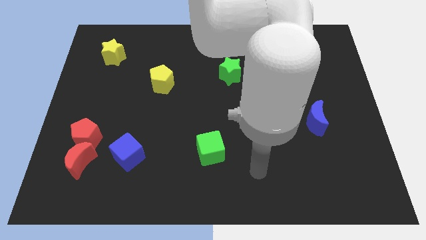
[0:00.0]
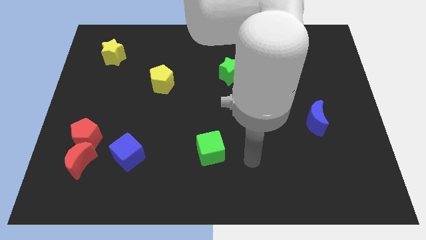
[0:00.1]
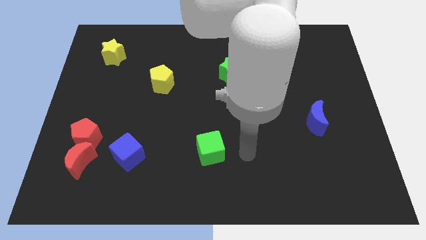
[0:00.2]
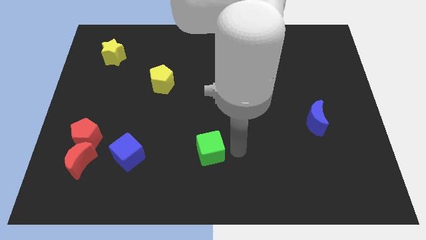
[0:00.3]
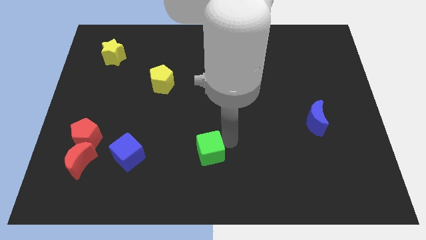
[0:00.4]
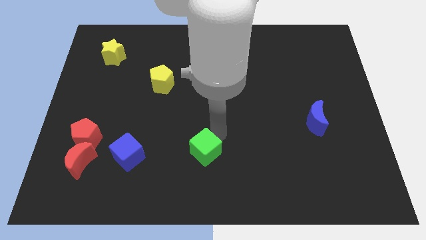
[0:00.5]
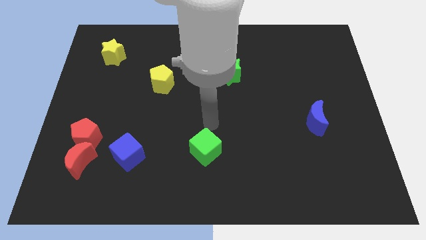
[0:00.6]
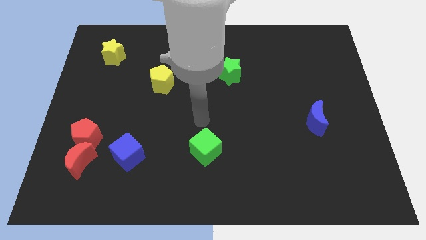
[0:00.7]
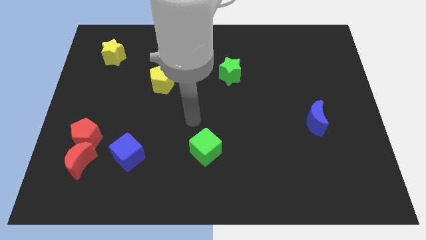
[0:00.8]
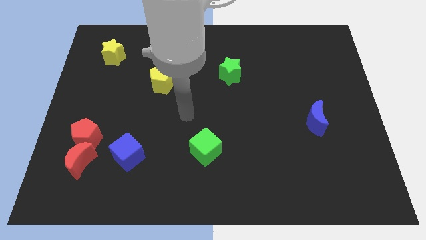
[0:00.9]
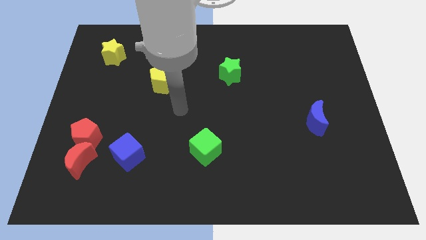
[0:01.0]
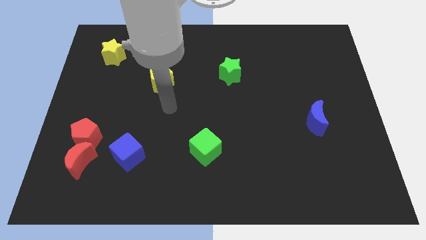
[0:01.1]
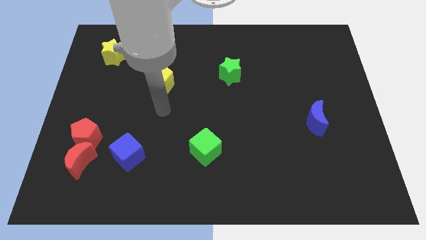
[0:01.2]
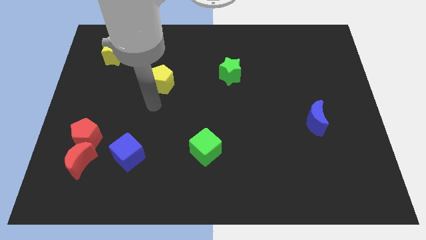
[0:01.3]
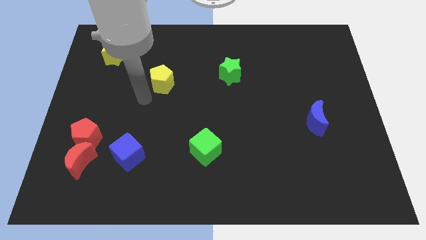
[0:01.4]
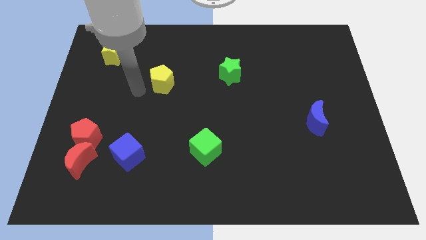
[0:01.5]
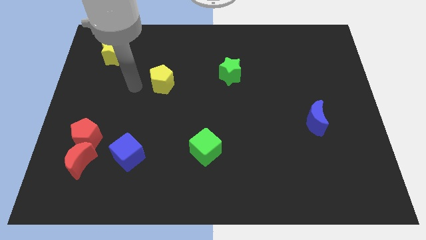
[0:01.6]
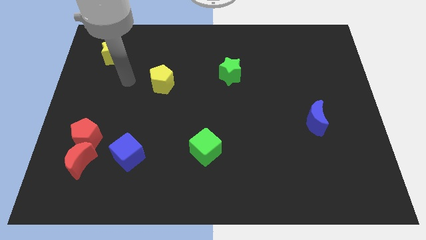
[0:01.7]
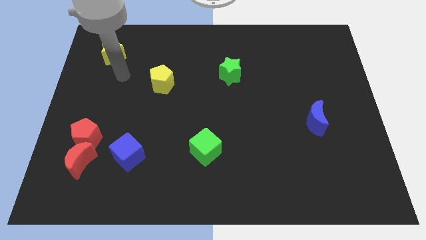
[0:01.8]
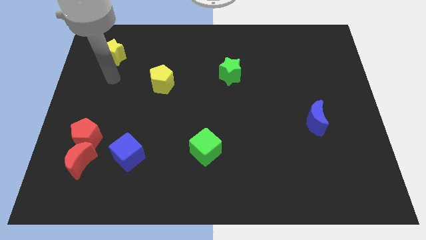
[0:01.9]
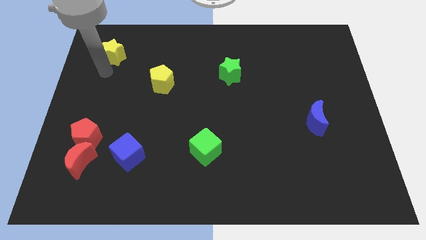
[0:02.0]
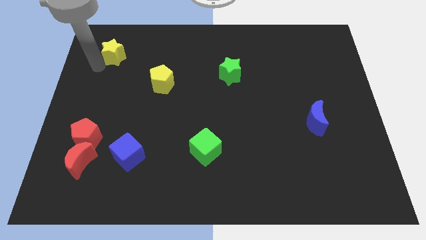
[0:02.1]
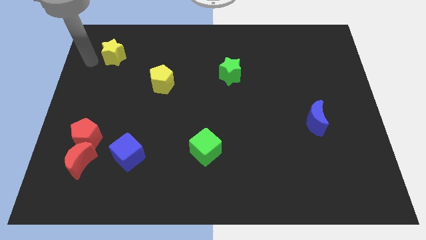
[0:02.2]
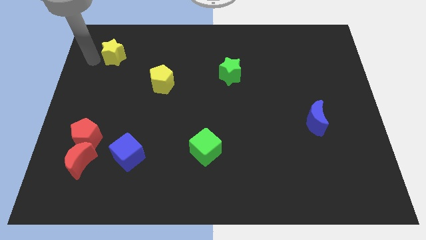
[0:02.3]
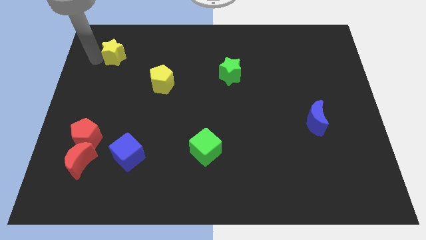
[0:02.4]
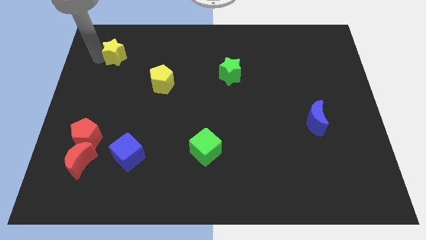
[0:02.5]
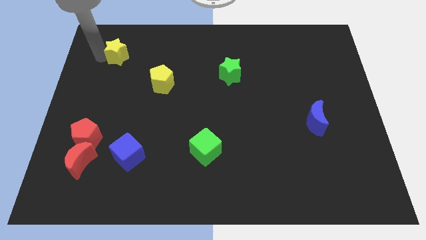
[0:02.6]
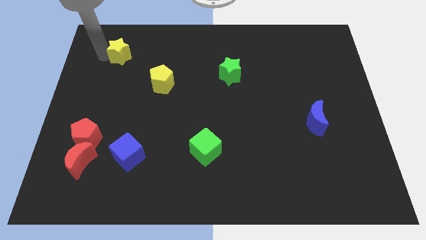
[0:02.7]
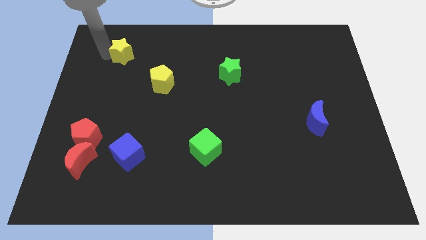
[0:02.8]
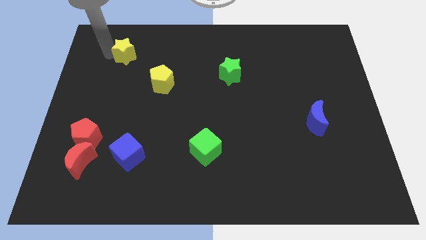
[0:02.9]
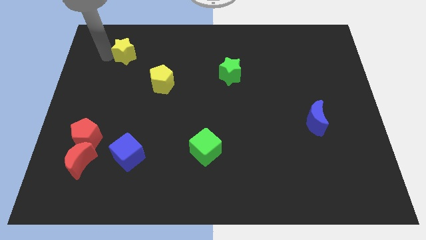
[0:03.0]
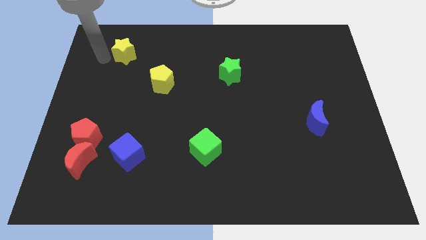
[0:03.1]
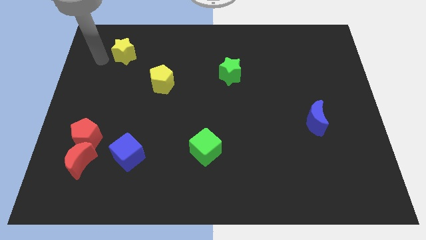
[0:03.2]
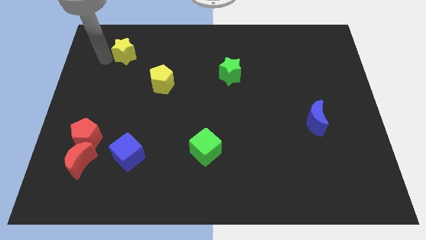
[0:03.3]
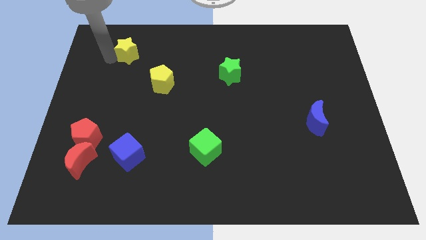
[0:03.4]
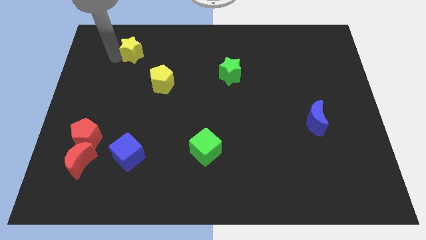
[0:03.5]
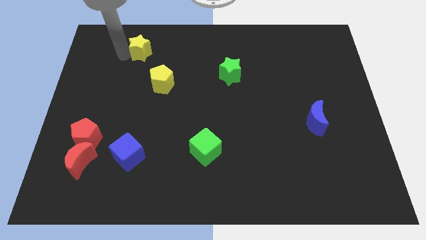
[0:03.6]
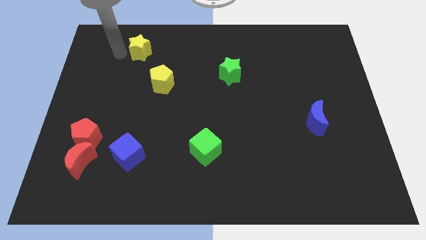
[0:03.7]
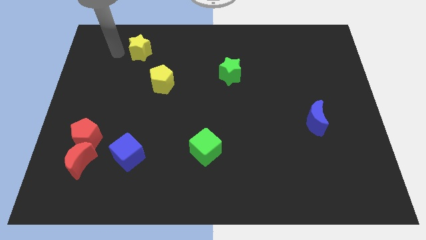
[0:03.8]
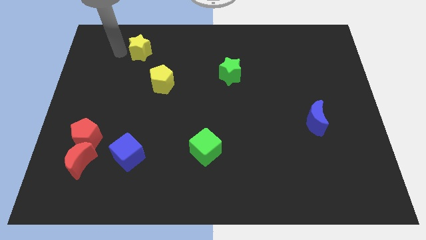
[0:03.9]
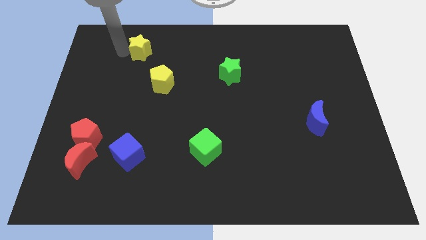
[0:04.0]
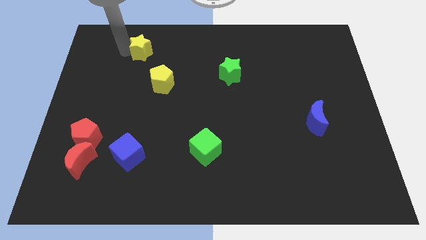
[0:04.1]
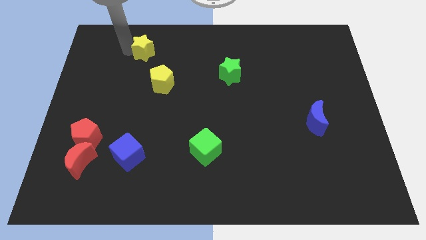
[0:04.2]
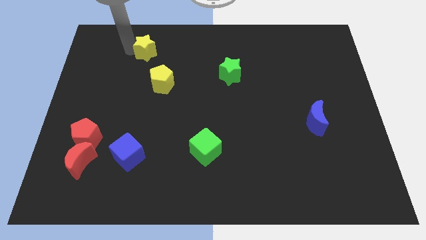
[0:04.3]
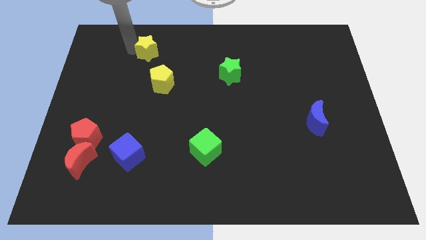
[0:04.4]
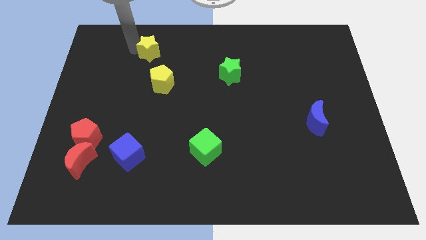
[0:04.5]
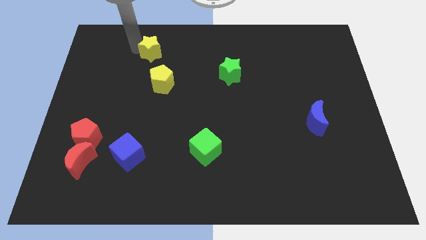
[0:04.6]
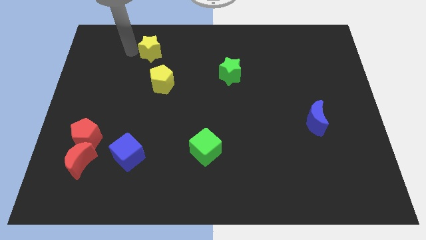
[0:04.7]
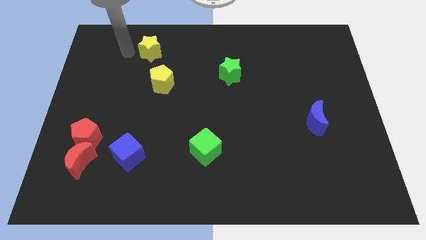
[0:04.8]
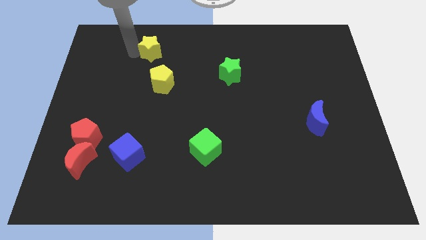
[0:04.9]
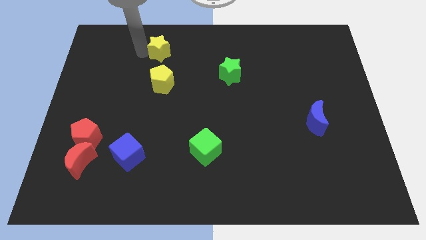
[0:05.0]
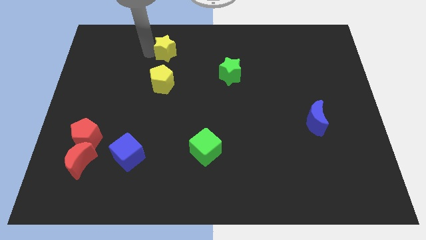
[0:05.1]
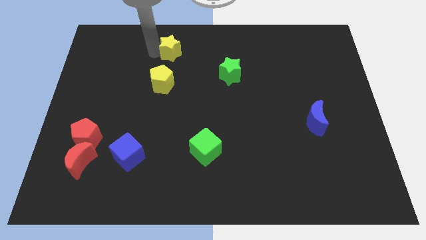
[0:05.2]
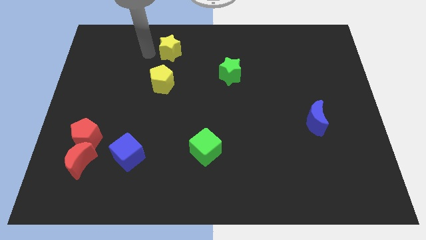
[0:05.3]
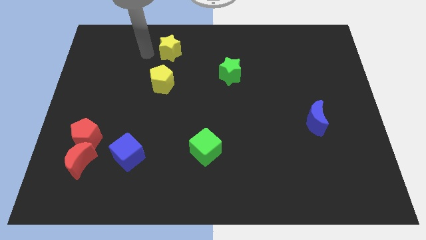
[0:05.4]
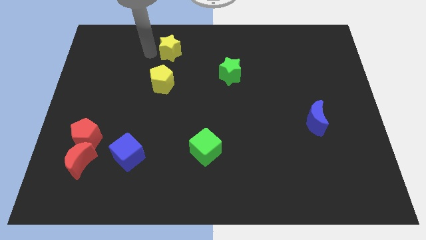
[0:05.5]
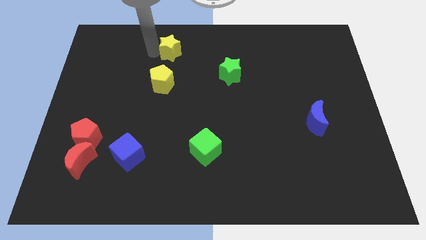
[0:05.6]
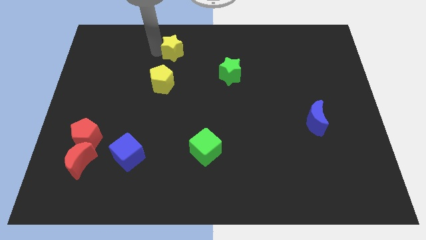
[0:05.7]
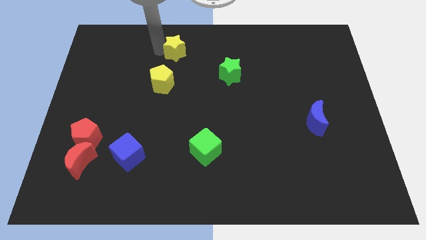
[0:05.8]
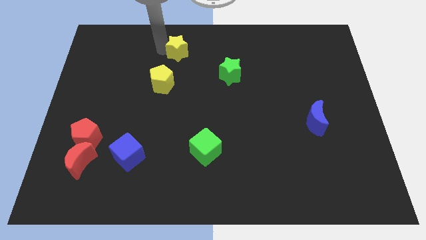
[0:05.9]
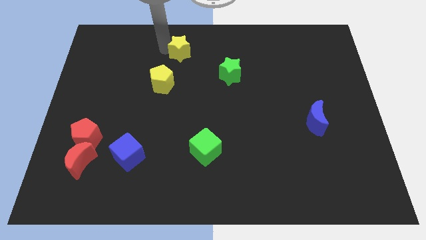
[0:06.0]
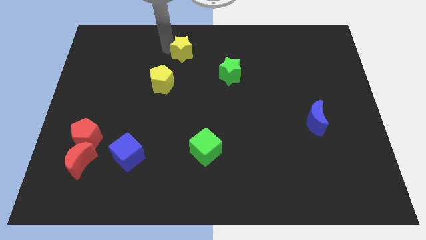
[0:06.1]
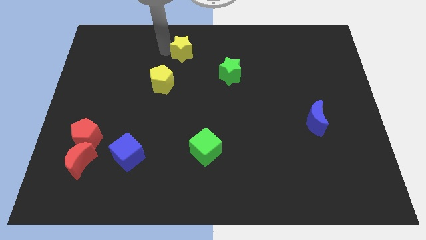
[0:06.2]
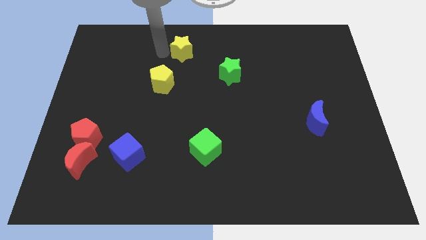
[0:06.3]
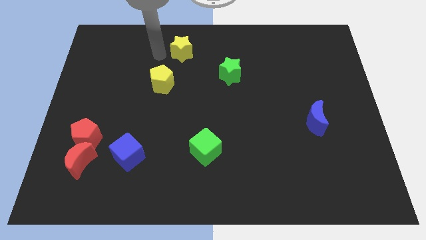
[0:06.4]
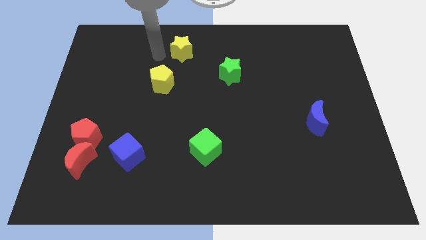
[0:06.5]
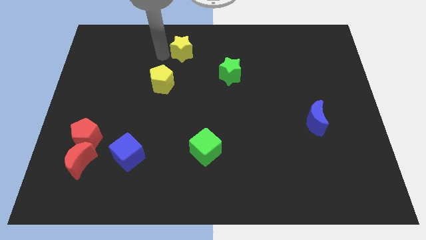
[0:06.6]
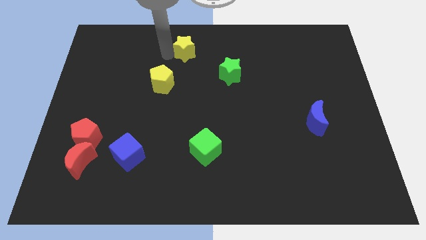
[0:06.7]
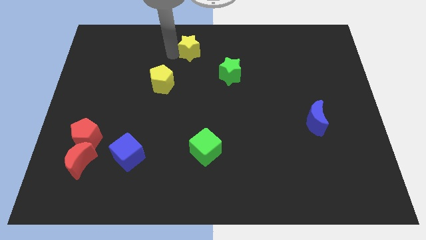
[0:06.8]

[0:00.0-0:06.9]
slide the yellow star to the right

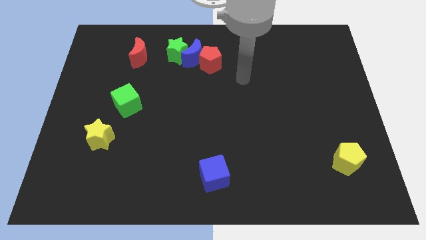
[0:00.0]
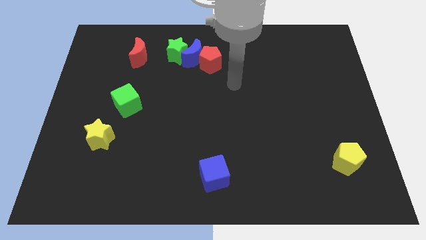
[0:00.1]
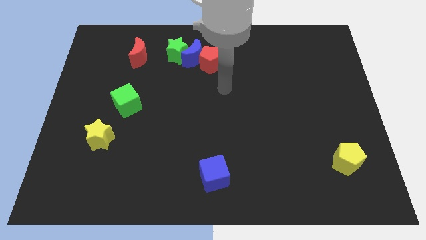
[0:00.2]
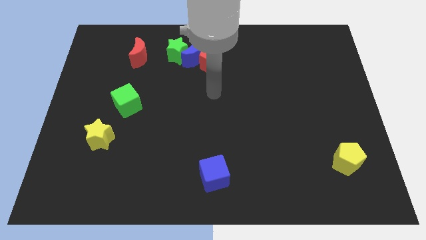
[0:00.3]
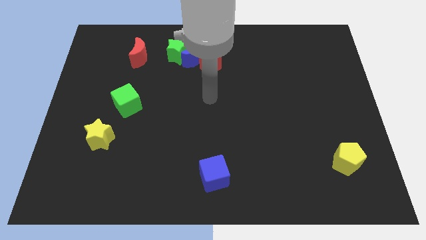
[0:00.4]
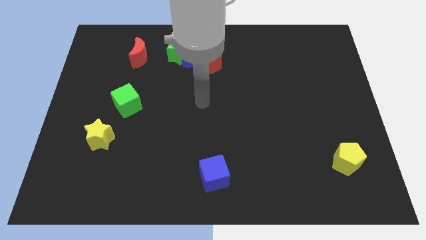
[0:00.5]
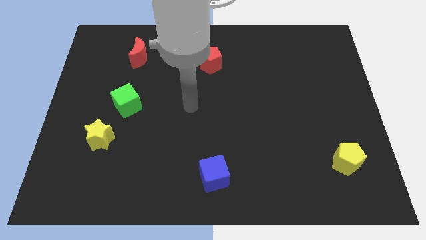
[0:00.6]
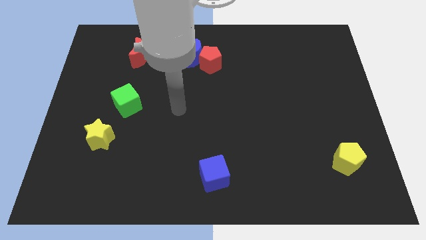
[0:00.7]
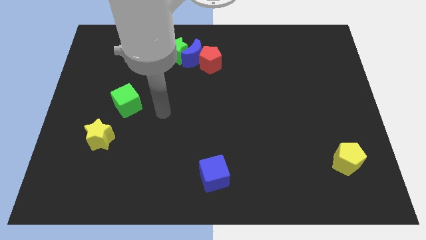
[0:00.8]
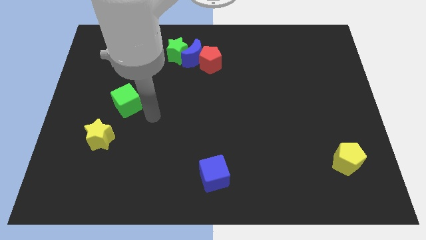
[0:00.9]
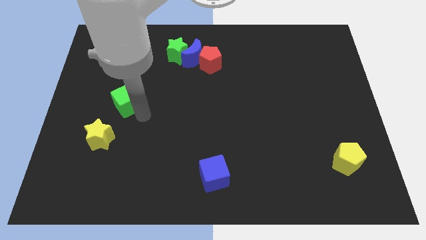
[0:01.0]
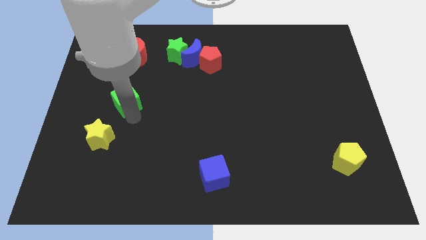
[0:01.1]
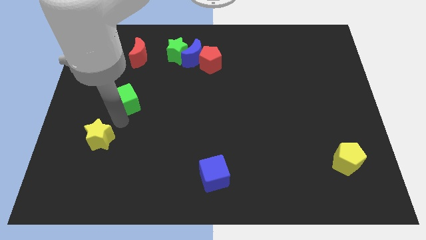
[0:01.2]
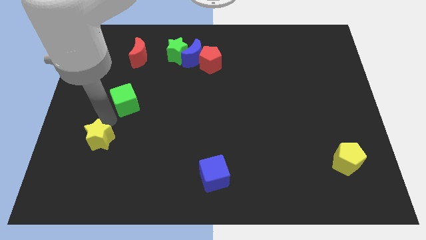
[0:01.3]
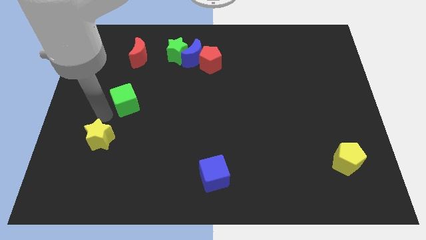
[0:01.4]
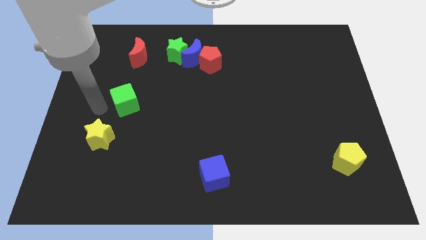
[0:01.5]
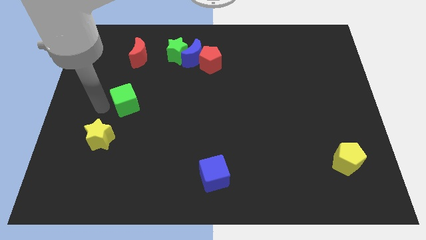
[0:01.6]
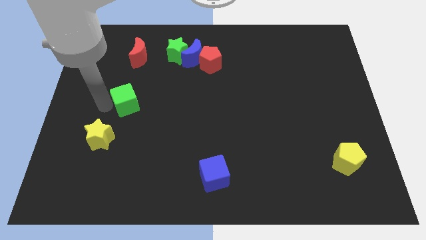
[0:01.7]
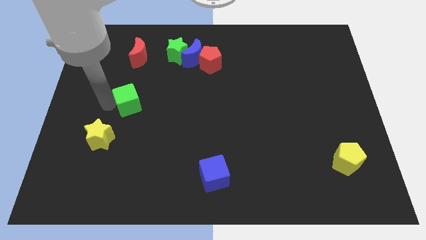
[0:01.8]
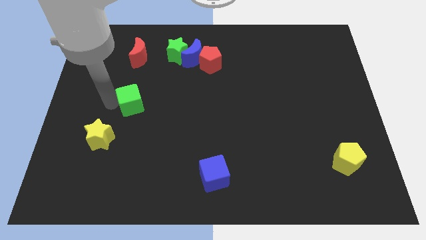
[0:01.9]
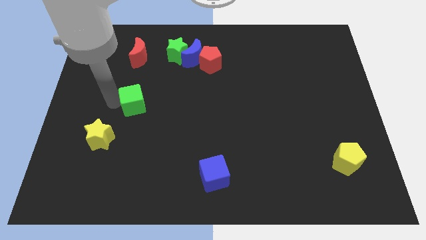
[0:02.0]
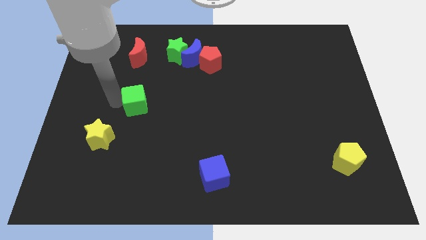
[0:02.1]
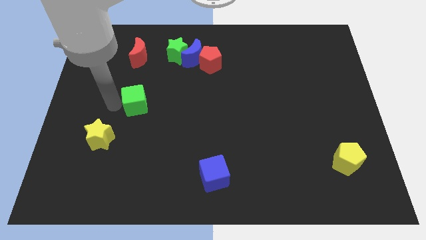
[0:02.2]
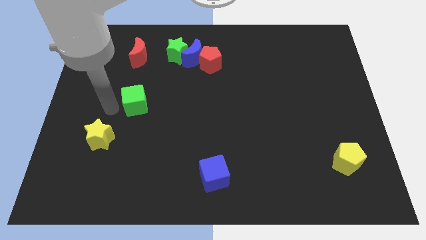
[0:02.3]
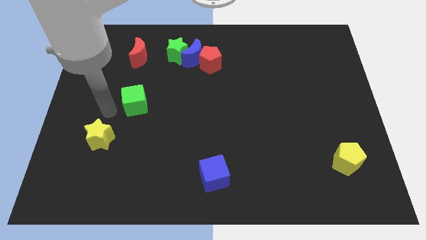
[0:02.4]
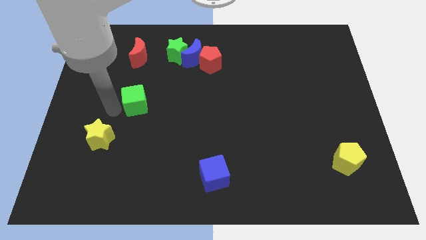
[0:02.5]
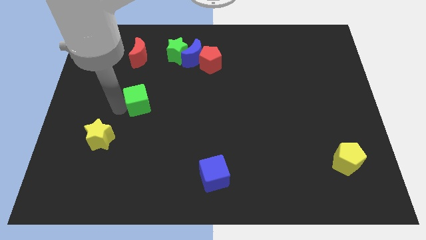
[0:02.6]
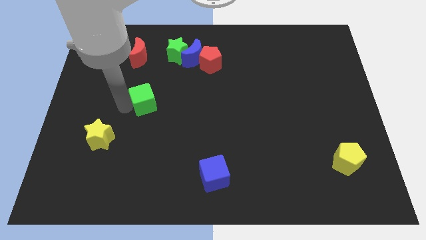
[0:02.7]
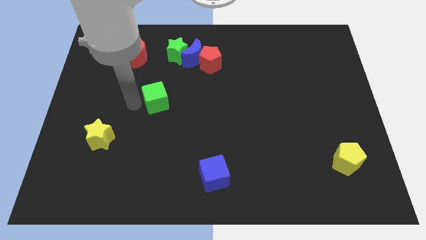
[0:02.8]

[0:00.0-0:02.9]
push the green cube right a bit
